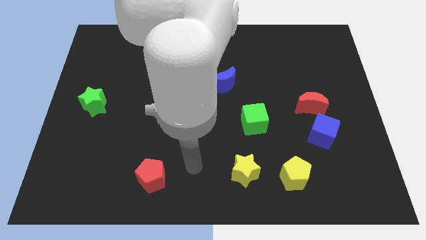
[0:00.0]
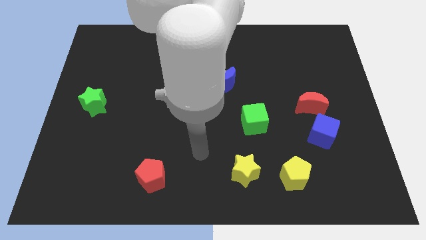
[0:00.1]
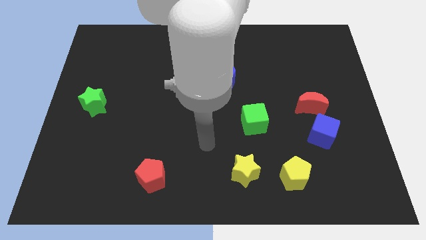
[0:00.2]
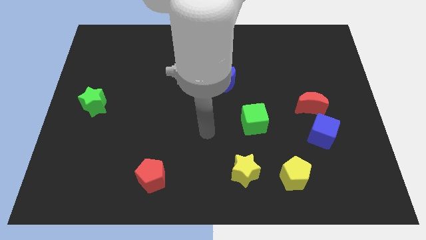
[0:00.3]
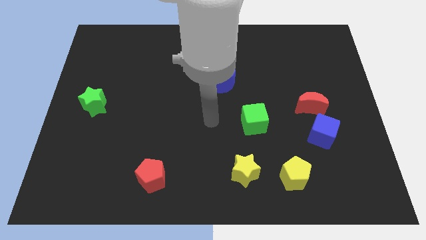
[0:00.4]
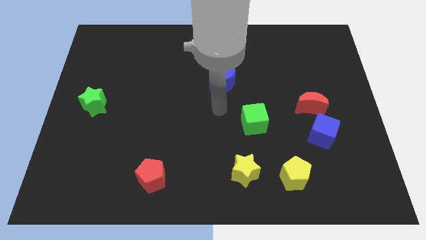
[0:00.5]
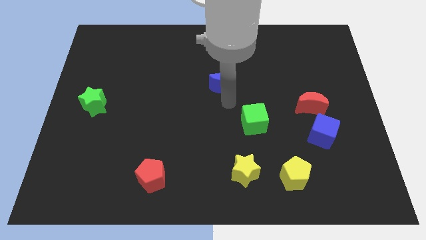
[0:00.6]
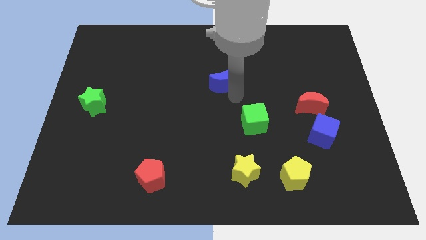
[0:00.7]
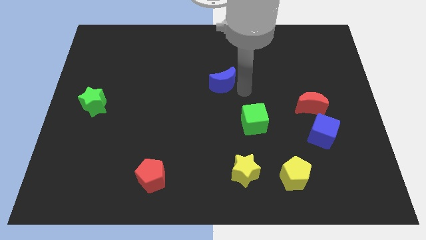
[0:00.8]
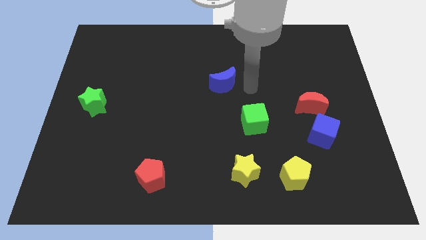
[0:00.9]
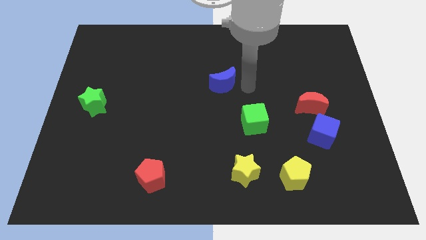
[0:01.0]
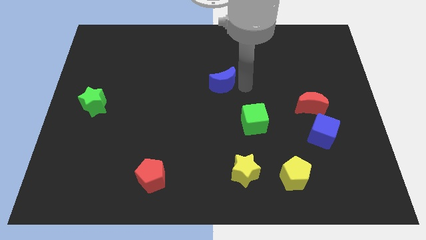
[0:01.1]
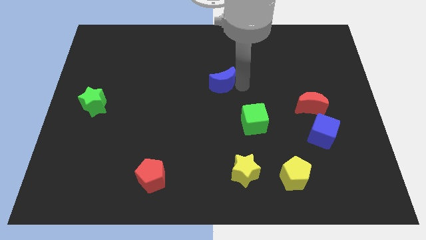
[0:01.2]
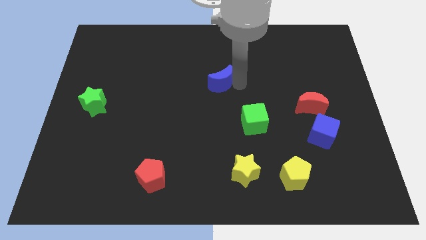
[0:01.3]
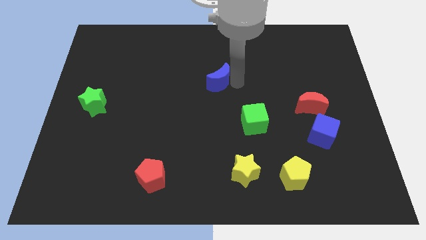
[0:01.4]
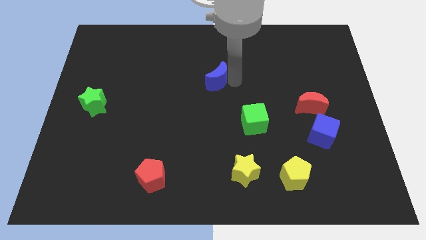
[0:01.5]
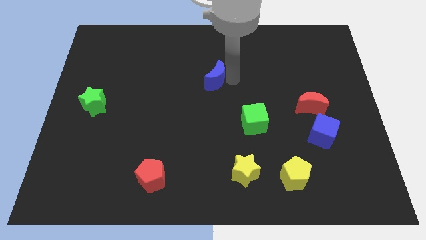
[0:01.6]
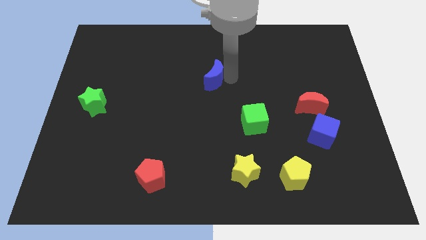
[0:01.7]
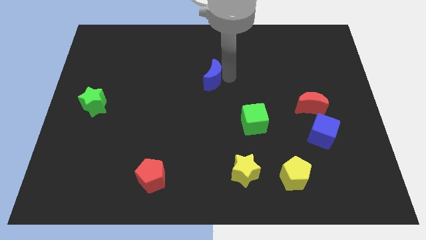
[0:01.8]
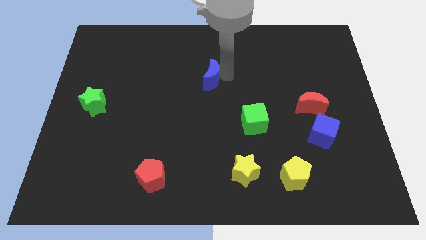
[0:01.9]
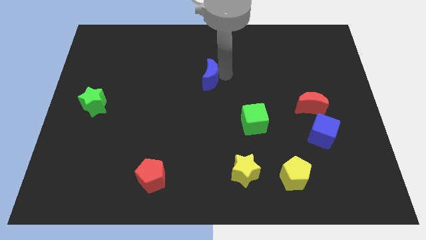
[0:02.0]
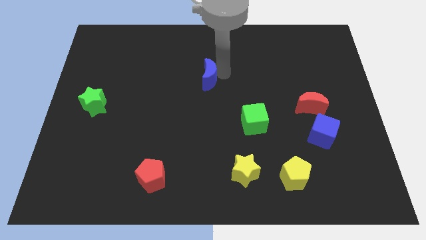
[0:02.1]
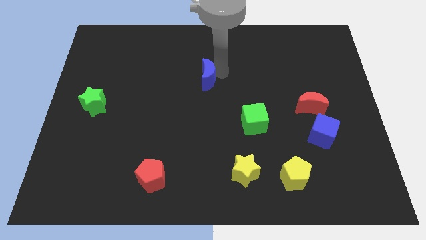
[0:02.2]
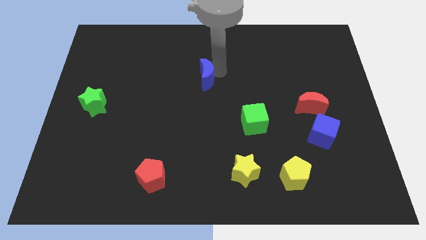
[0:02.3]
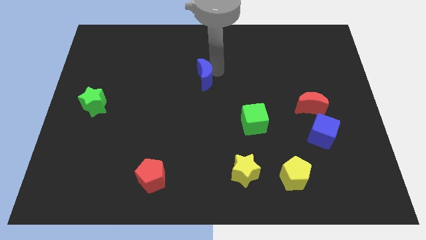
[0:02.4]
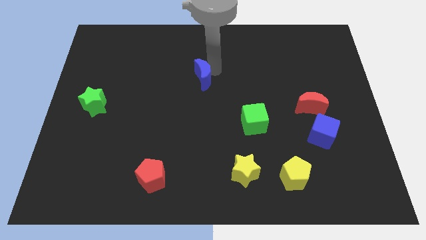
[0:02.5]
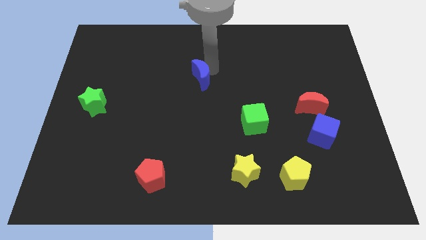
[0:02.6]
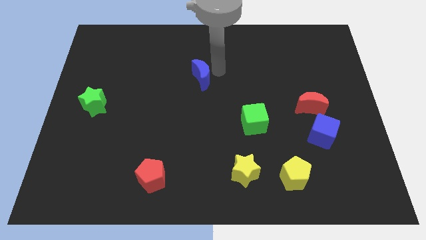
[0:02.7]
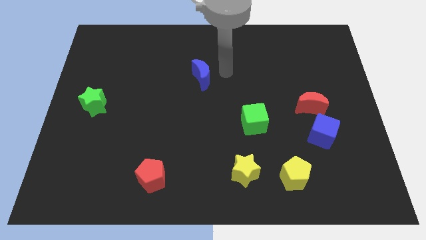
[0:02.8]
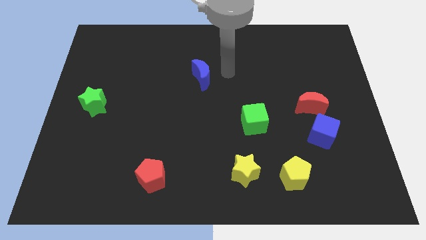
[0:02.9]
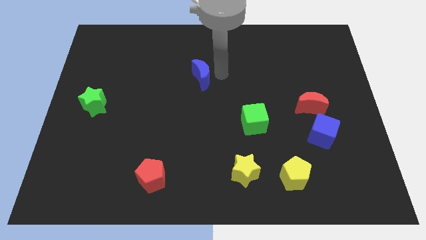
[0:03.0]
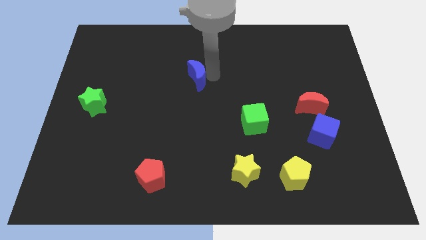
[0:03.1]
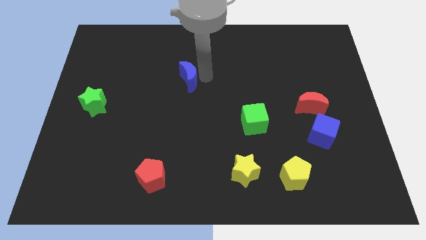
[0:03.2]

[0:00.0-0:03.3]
slightly move the blue moon left

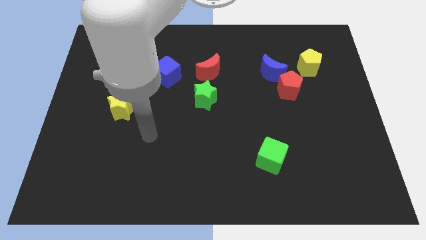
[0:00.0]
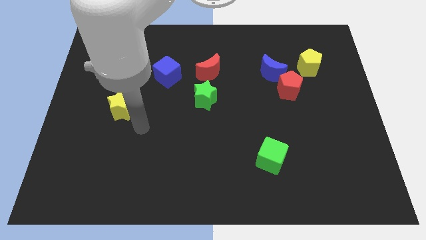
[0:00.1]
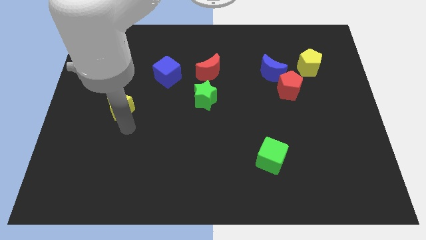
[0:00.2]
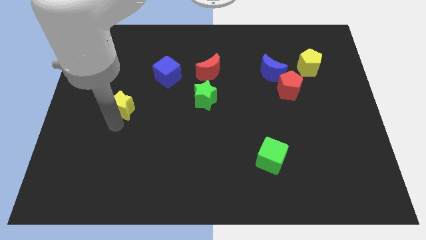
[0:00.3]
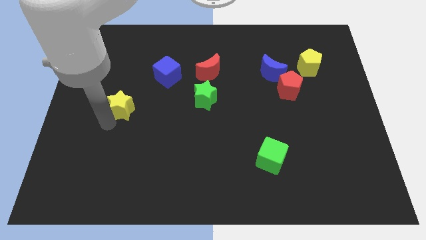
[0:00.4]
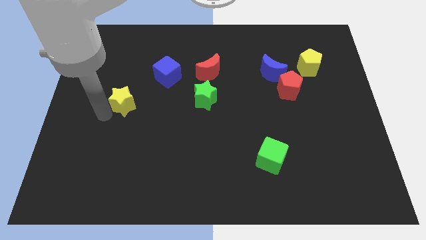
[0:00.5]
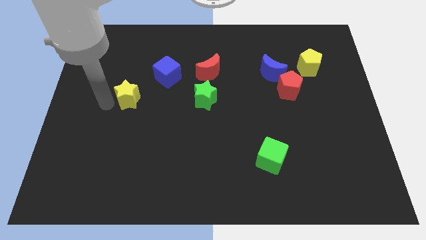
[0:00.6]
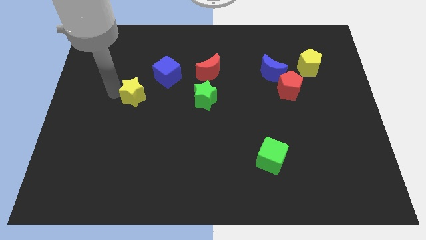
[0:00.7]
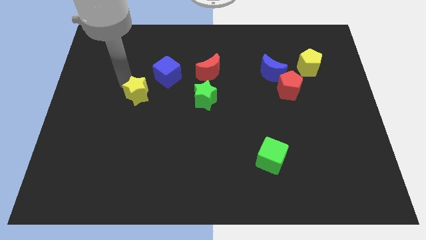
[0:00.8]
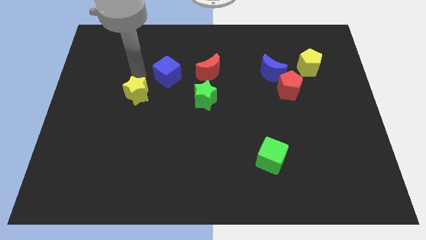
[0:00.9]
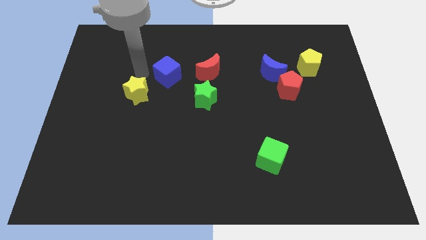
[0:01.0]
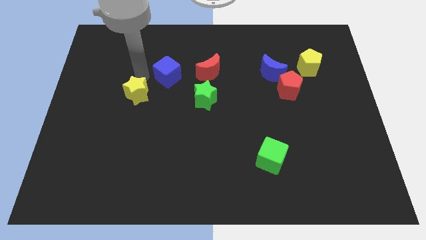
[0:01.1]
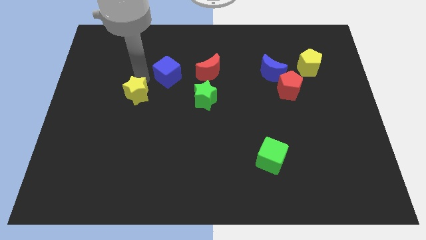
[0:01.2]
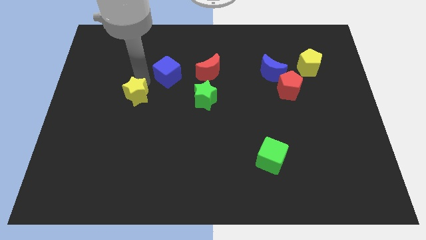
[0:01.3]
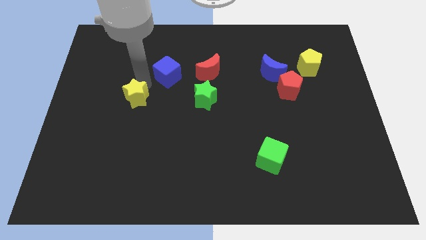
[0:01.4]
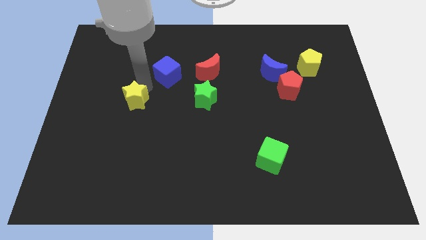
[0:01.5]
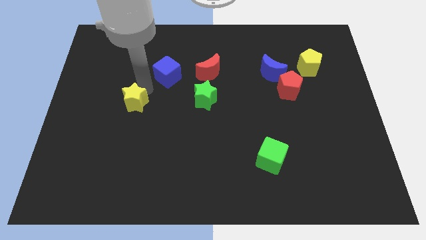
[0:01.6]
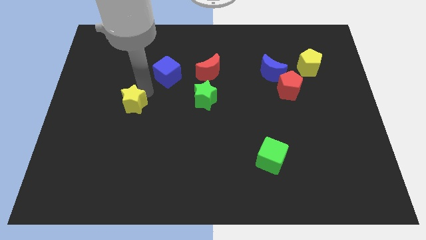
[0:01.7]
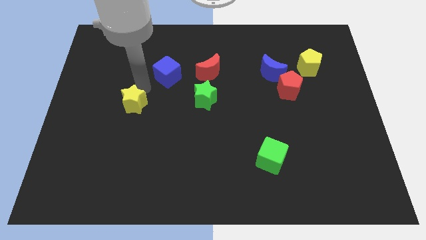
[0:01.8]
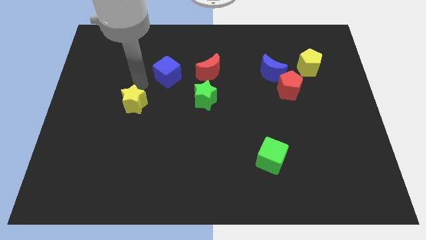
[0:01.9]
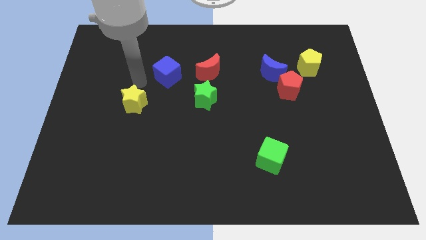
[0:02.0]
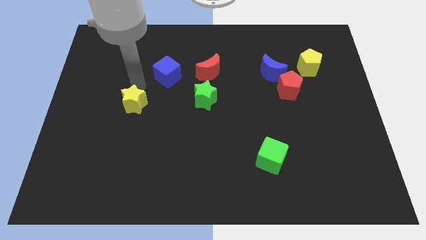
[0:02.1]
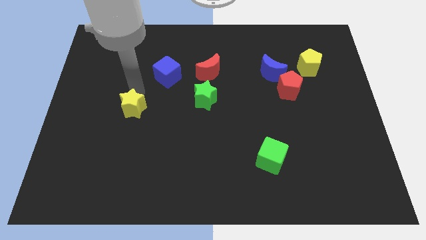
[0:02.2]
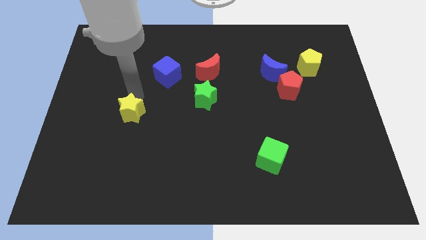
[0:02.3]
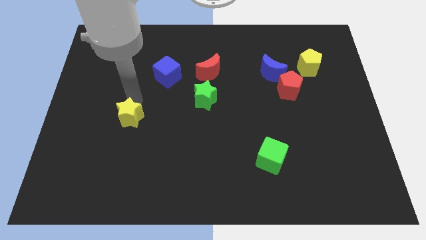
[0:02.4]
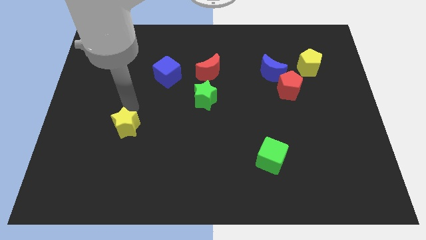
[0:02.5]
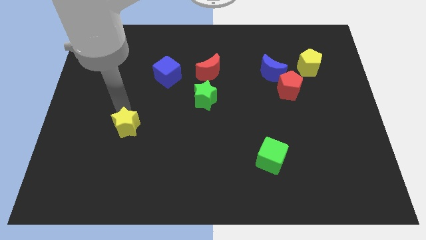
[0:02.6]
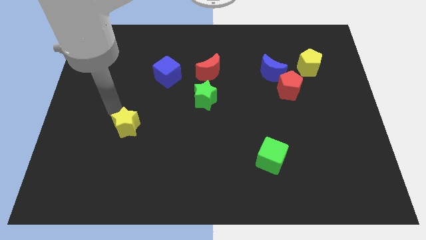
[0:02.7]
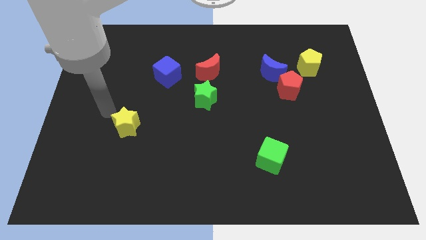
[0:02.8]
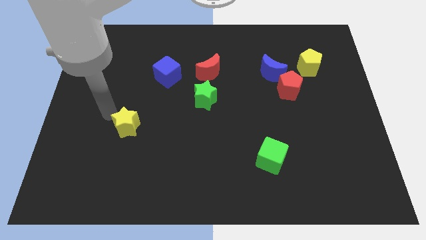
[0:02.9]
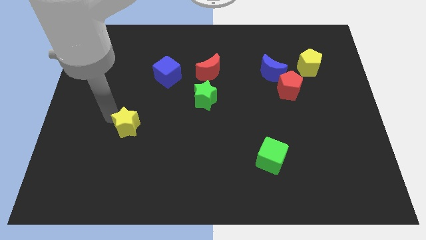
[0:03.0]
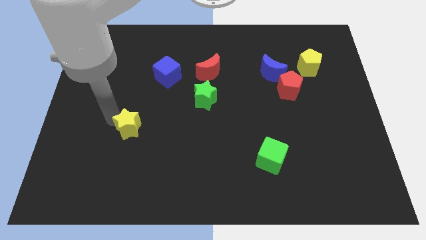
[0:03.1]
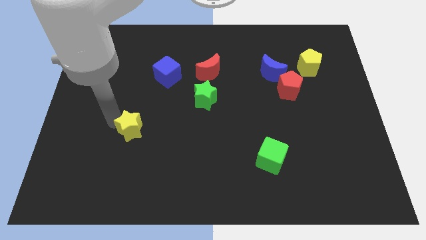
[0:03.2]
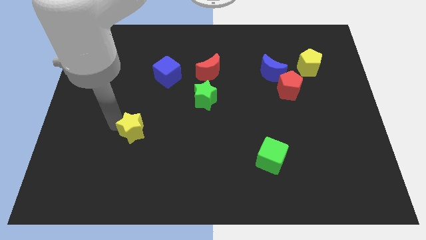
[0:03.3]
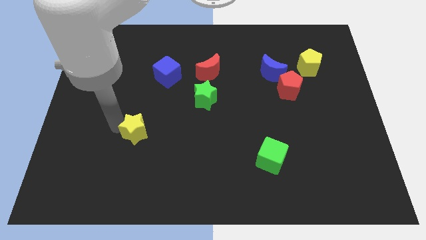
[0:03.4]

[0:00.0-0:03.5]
slide the yellow star a little bit down and right

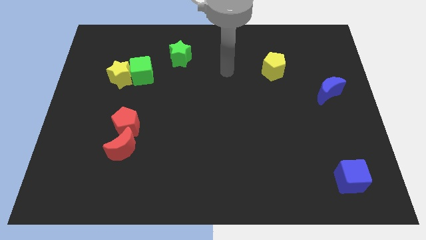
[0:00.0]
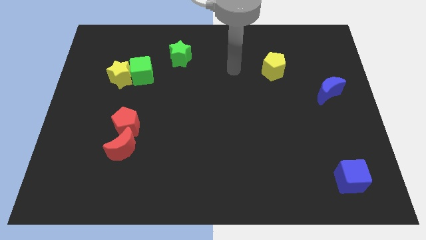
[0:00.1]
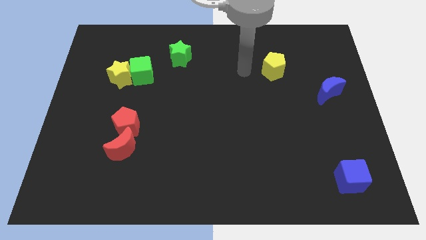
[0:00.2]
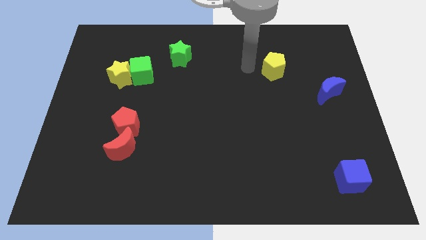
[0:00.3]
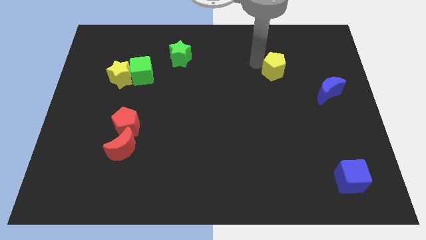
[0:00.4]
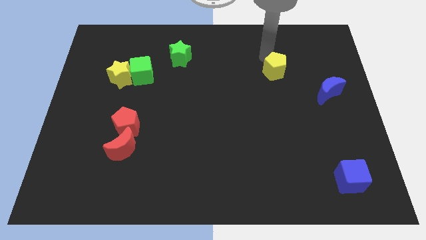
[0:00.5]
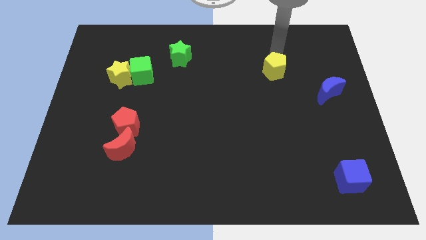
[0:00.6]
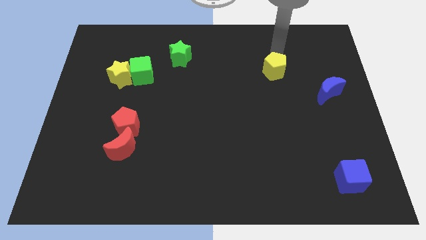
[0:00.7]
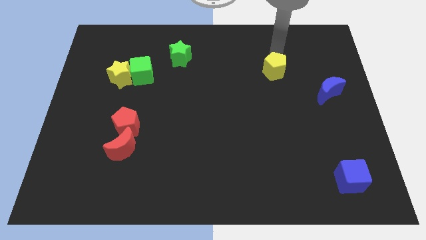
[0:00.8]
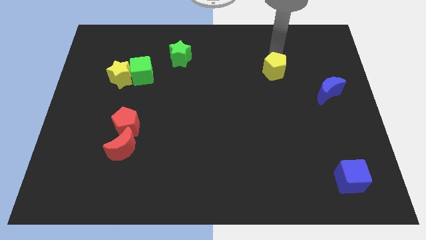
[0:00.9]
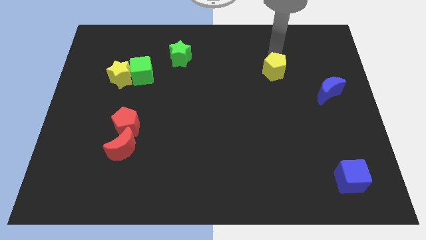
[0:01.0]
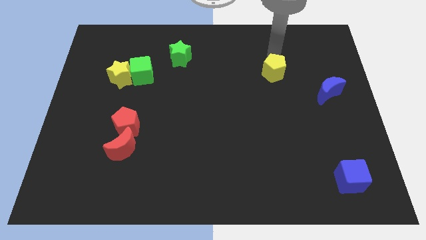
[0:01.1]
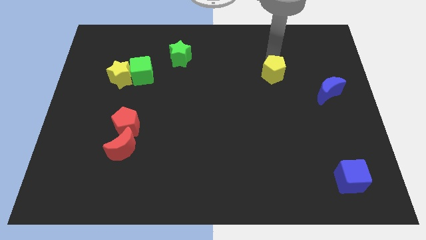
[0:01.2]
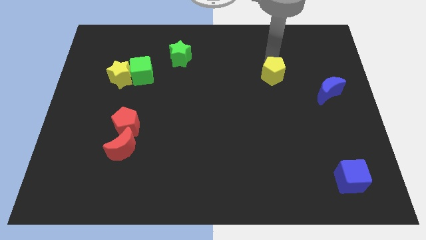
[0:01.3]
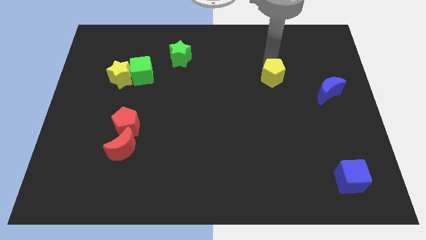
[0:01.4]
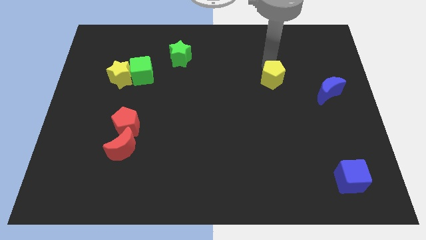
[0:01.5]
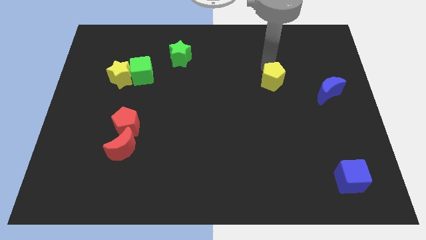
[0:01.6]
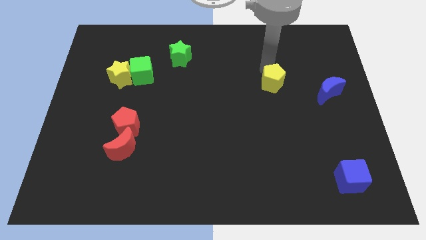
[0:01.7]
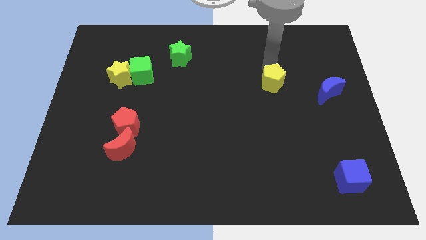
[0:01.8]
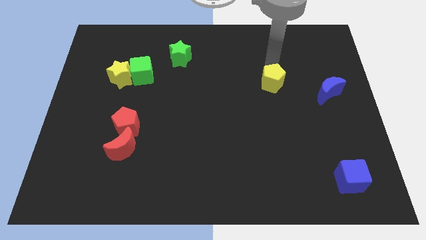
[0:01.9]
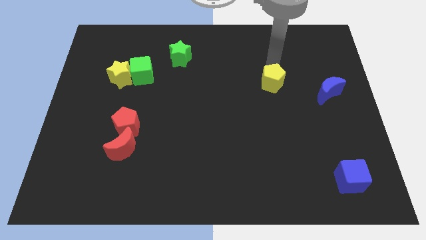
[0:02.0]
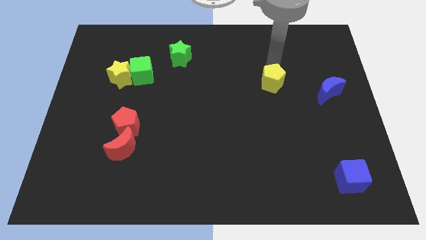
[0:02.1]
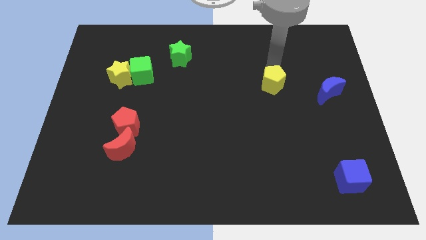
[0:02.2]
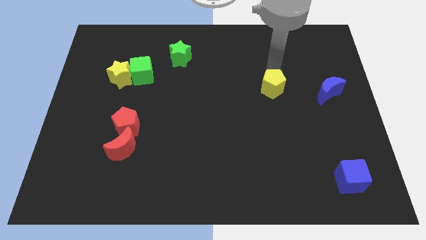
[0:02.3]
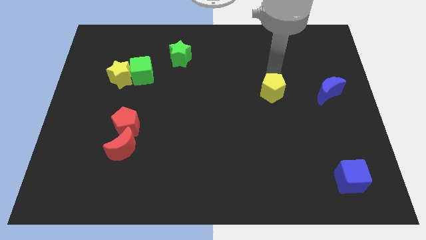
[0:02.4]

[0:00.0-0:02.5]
push the yellow pentagon down a bit
